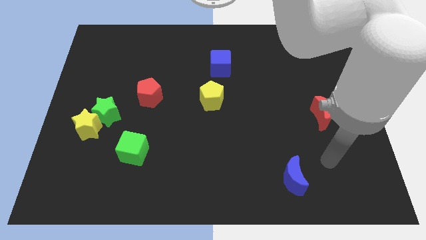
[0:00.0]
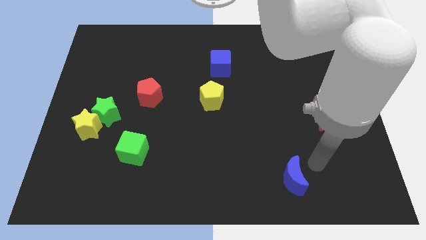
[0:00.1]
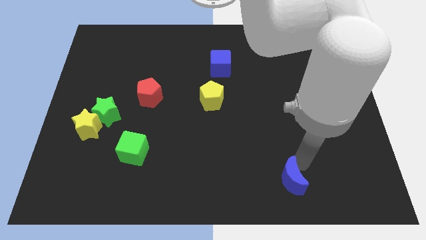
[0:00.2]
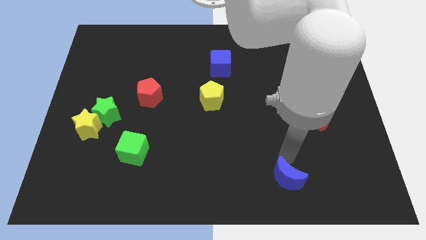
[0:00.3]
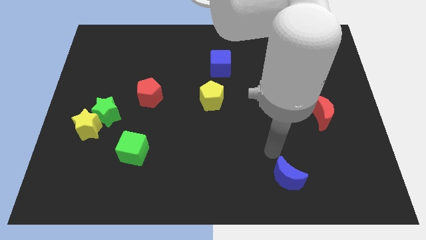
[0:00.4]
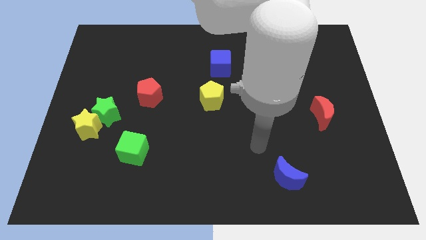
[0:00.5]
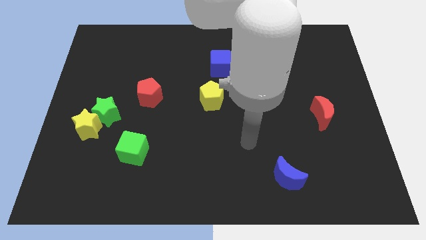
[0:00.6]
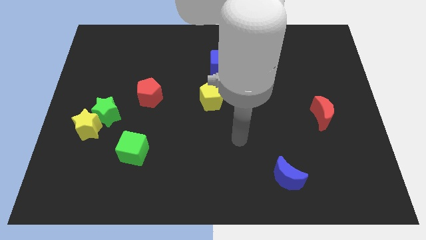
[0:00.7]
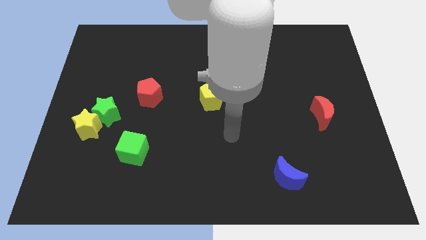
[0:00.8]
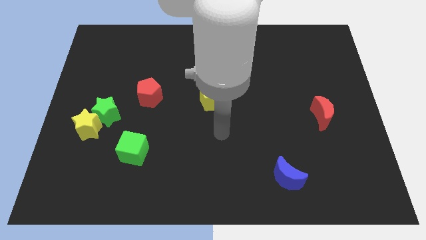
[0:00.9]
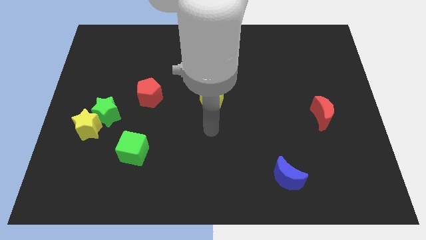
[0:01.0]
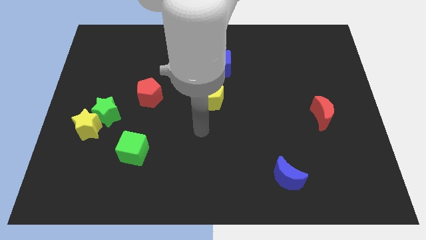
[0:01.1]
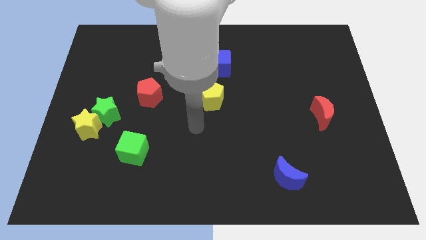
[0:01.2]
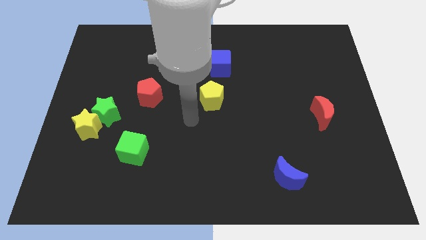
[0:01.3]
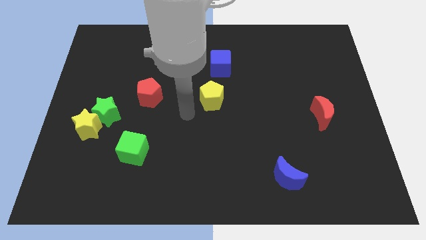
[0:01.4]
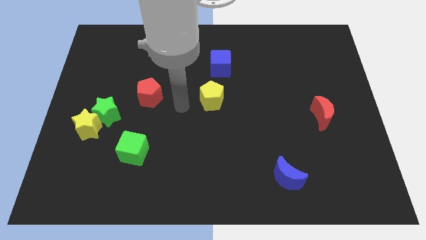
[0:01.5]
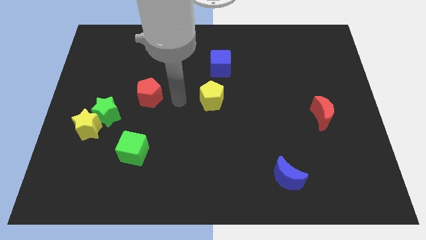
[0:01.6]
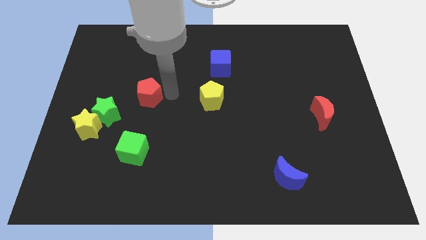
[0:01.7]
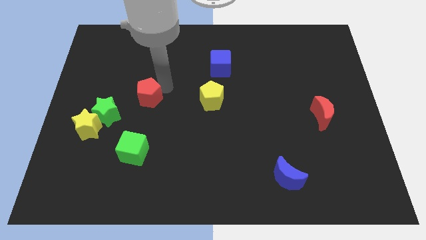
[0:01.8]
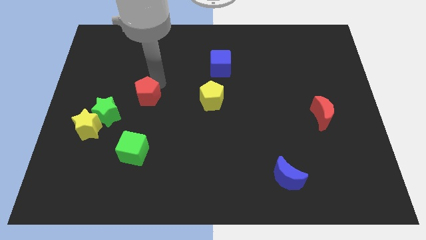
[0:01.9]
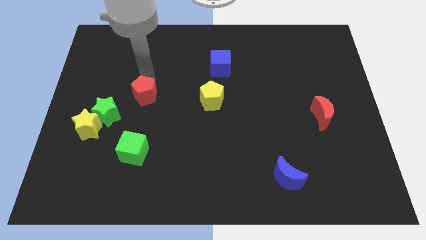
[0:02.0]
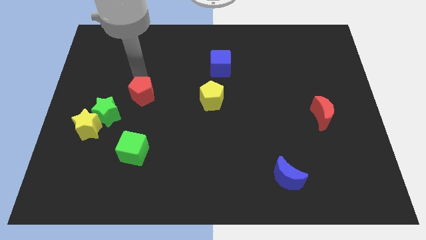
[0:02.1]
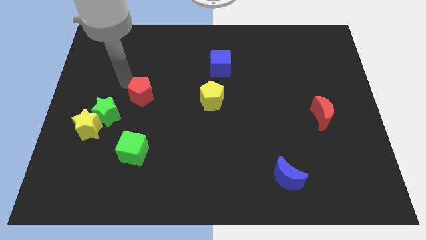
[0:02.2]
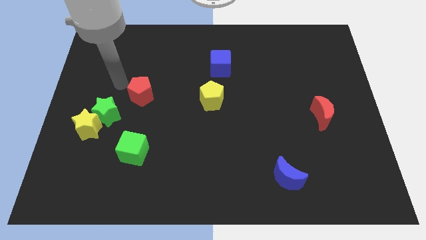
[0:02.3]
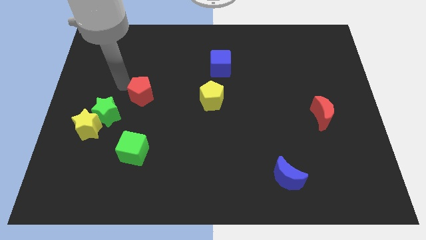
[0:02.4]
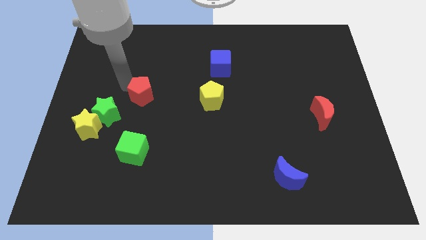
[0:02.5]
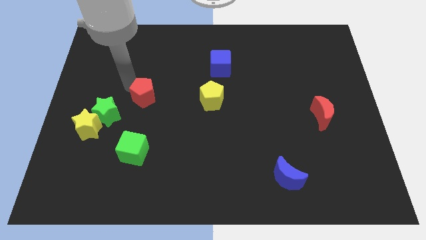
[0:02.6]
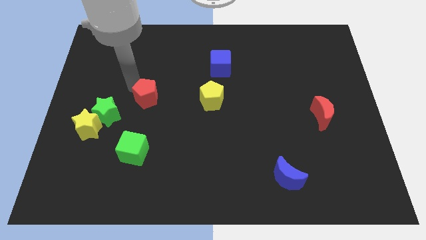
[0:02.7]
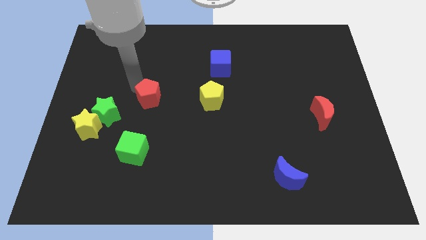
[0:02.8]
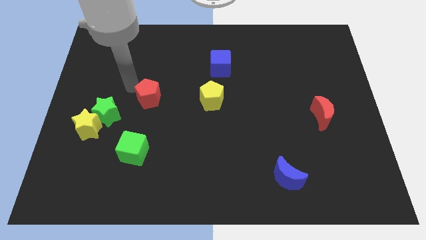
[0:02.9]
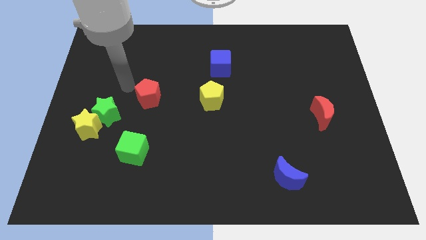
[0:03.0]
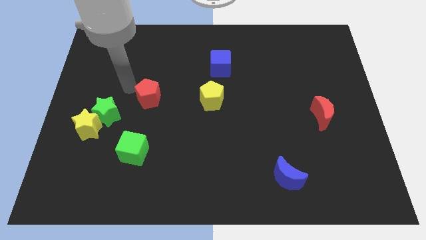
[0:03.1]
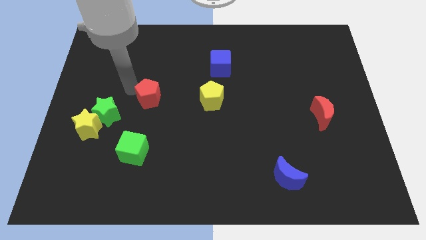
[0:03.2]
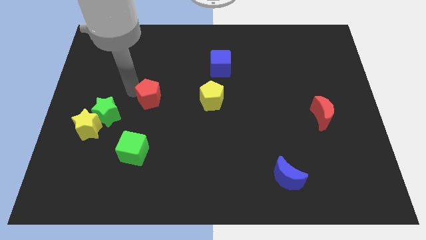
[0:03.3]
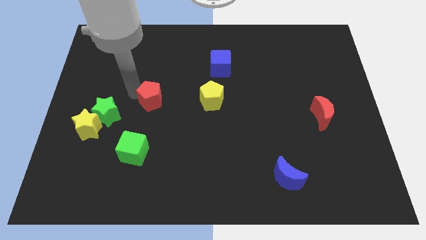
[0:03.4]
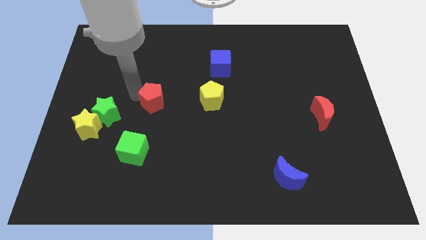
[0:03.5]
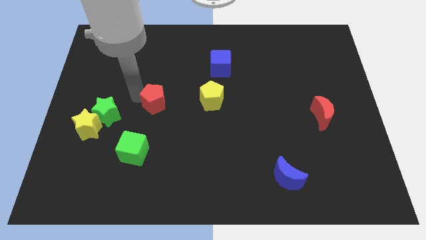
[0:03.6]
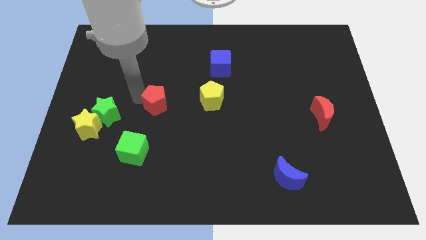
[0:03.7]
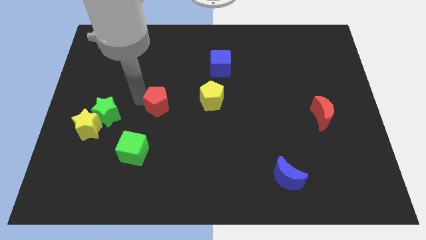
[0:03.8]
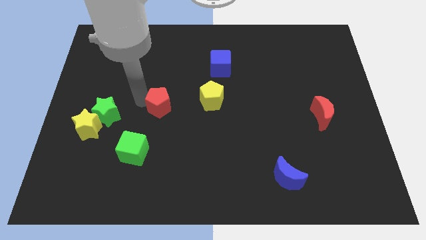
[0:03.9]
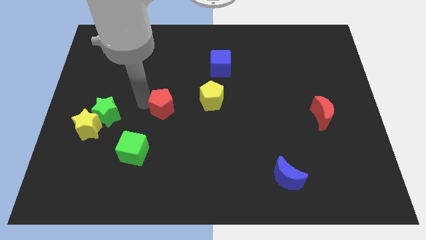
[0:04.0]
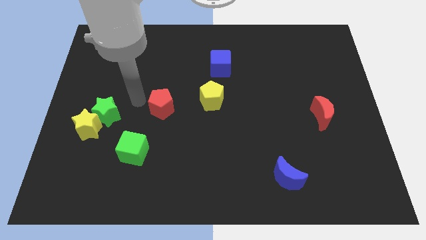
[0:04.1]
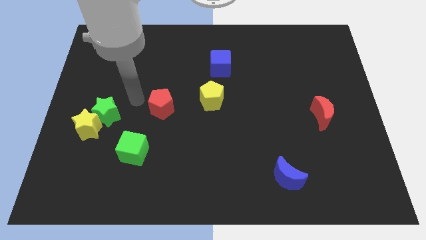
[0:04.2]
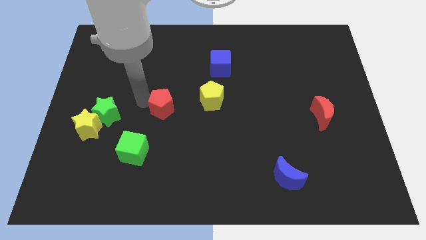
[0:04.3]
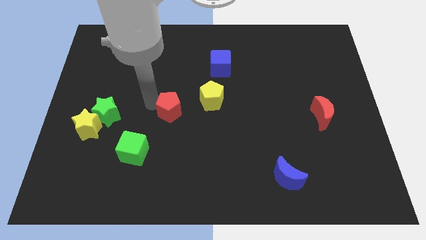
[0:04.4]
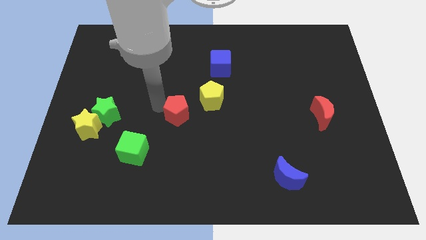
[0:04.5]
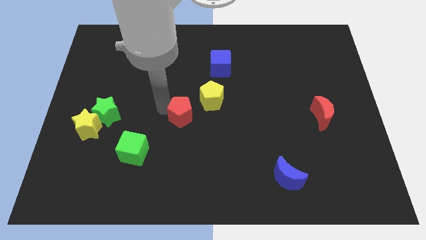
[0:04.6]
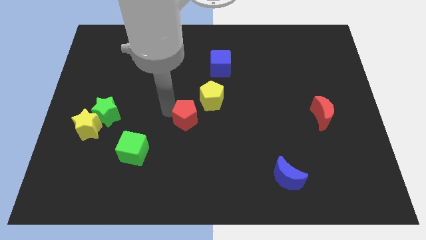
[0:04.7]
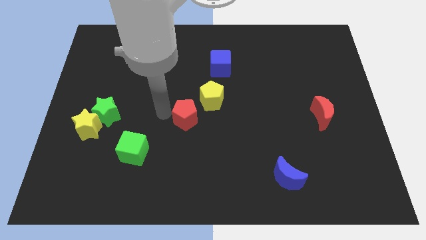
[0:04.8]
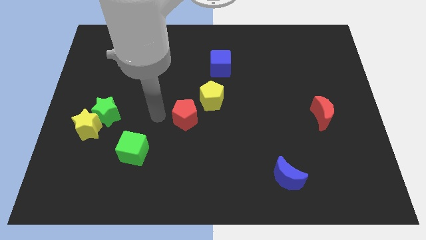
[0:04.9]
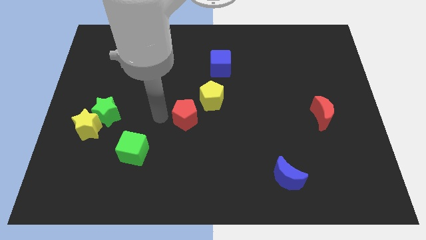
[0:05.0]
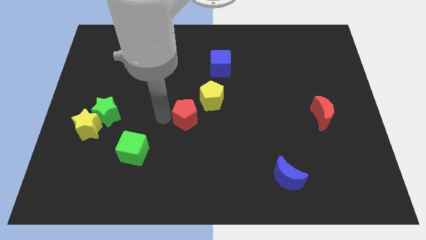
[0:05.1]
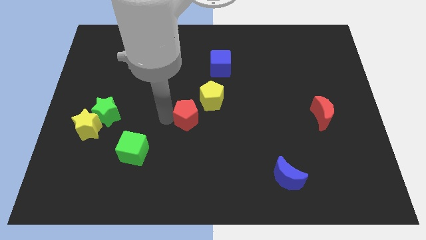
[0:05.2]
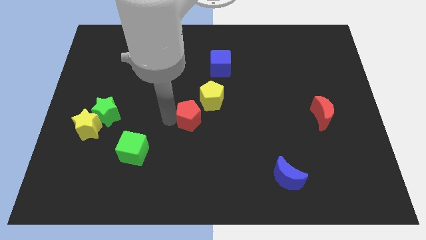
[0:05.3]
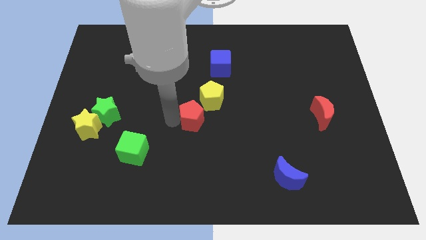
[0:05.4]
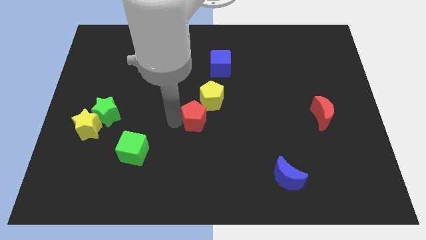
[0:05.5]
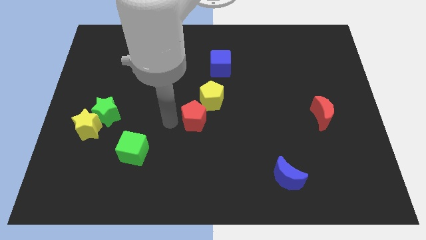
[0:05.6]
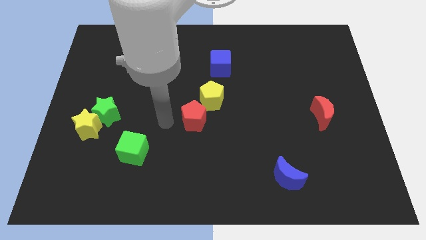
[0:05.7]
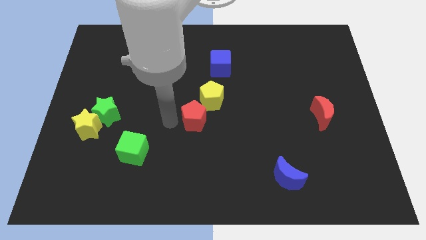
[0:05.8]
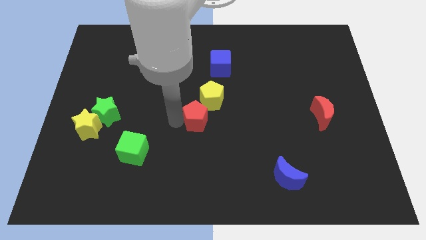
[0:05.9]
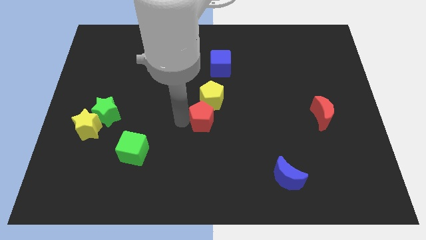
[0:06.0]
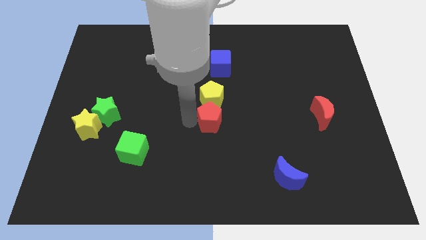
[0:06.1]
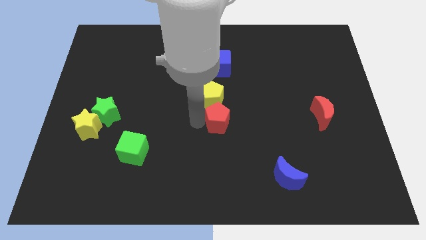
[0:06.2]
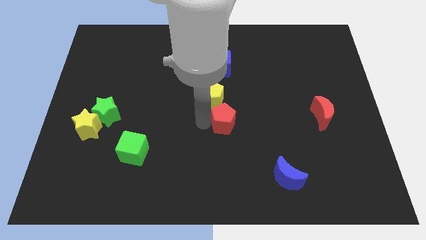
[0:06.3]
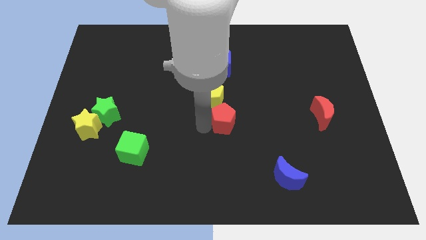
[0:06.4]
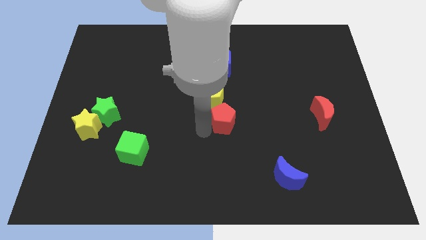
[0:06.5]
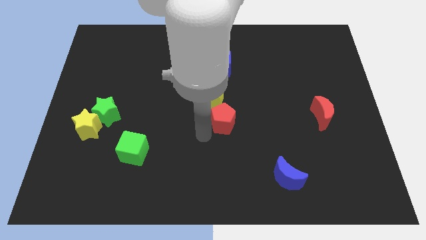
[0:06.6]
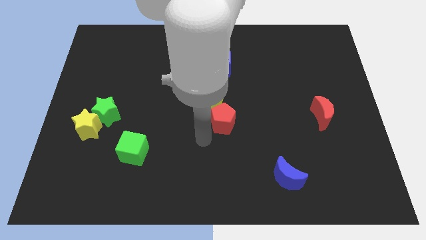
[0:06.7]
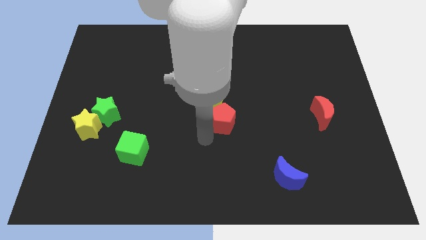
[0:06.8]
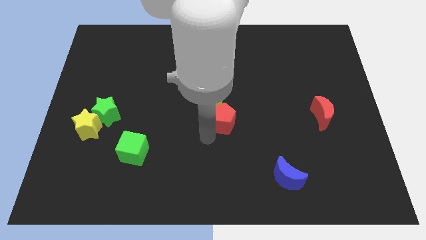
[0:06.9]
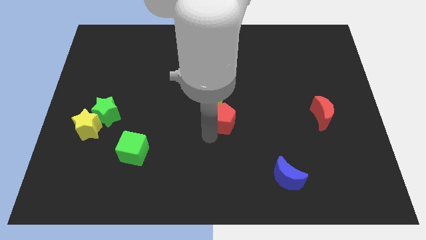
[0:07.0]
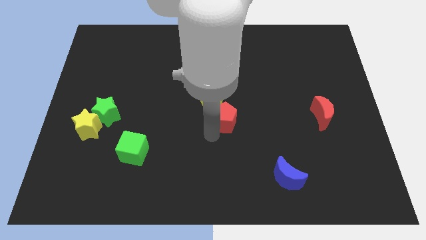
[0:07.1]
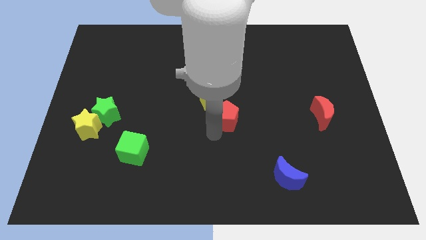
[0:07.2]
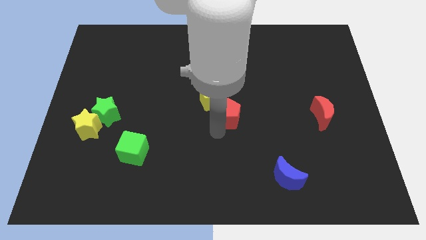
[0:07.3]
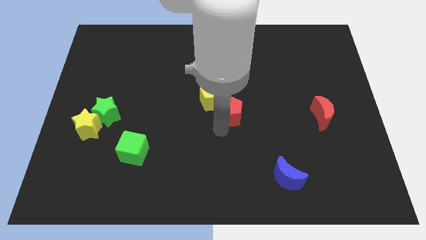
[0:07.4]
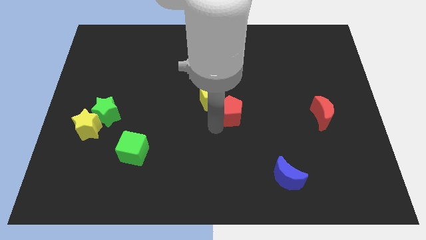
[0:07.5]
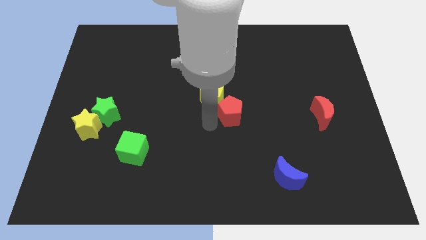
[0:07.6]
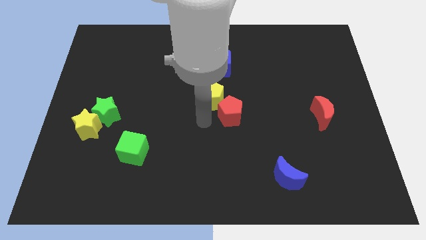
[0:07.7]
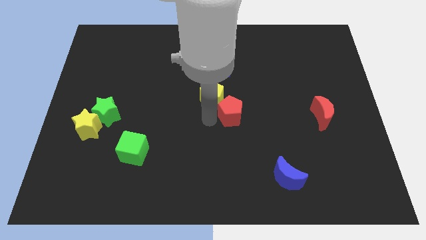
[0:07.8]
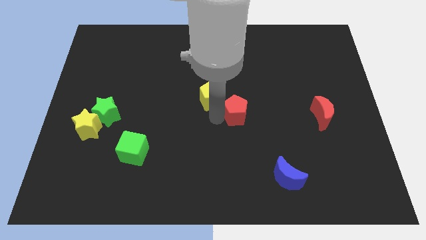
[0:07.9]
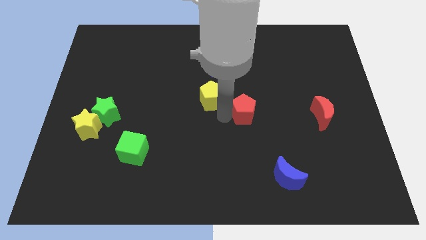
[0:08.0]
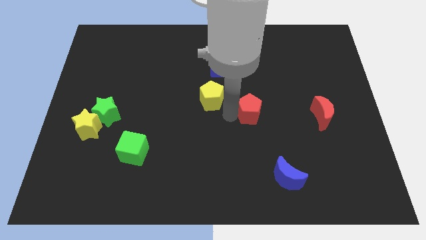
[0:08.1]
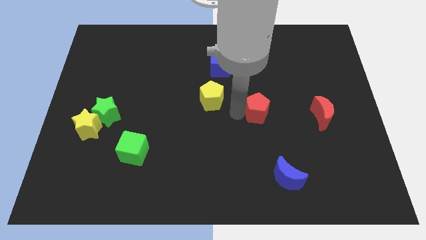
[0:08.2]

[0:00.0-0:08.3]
slide the red pentagon to the left side of the red moon
